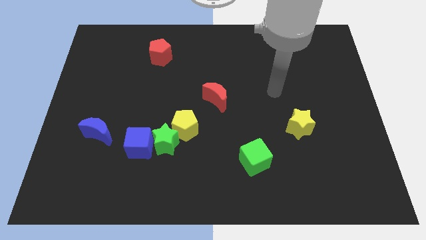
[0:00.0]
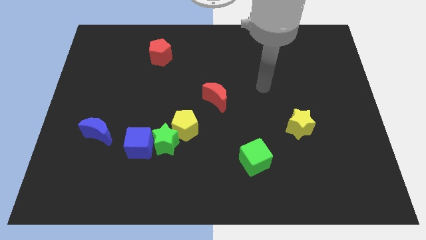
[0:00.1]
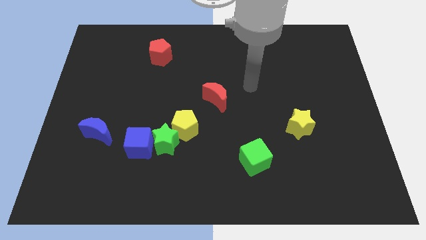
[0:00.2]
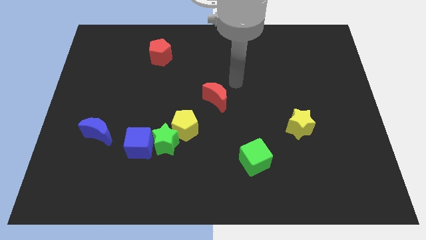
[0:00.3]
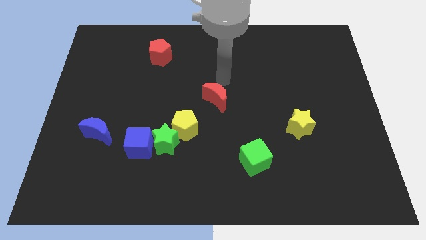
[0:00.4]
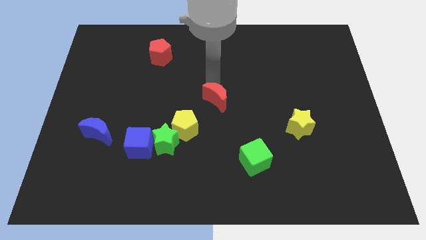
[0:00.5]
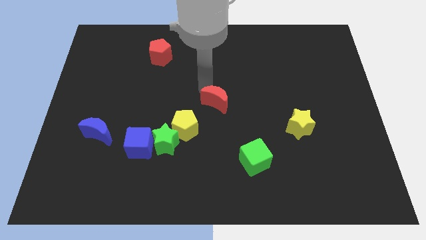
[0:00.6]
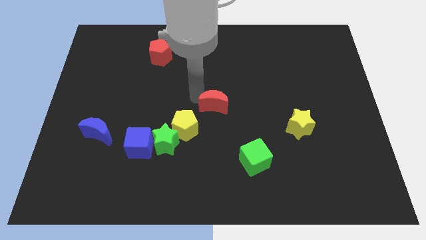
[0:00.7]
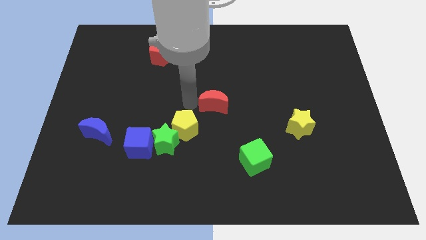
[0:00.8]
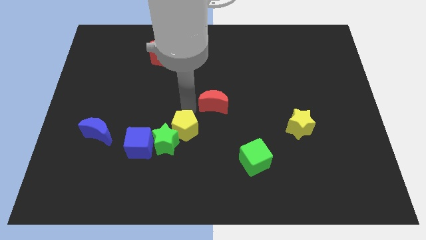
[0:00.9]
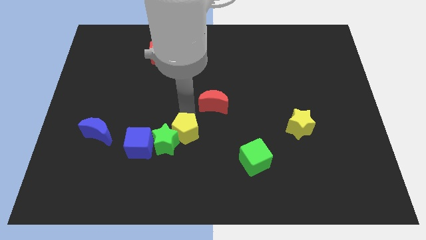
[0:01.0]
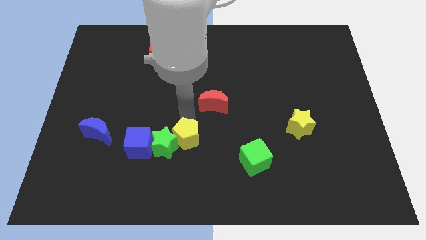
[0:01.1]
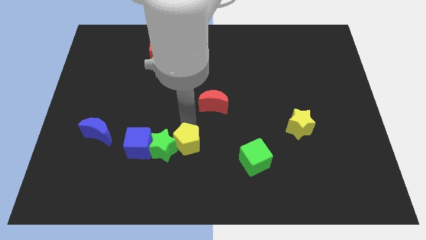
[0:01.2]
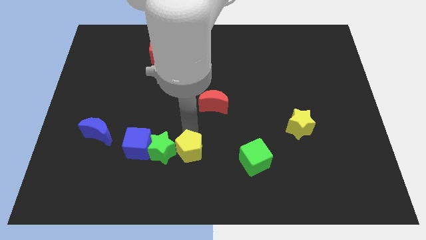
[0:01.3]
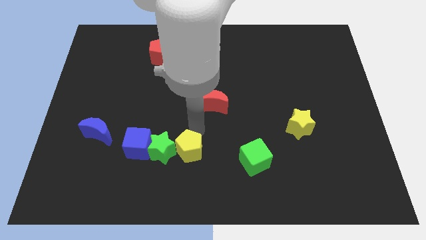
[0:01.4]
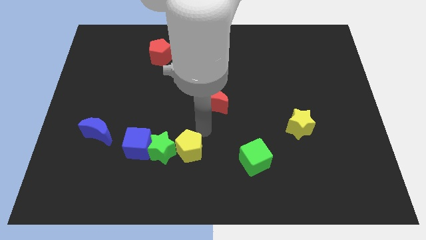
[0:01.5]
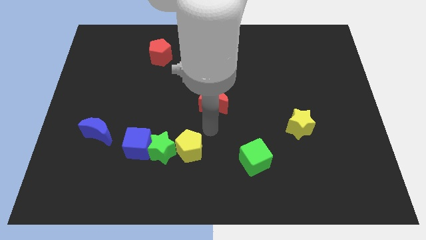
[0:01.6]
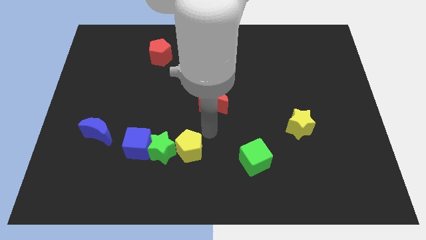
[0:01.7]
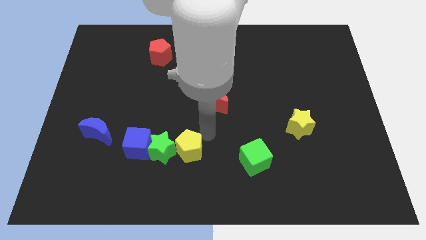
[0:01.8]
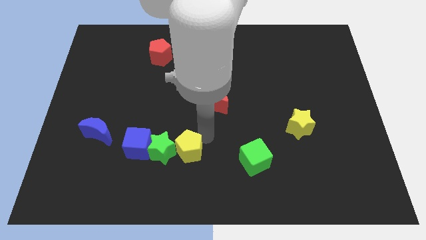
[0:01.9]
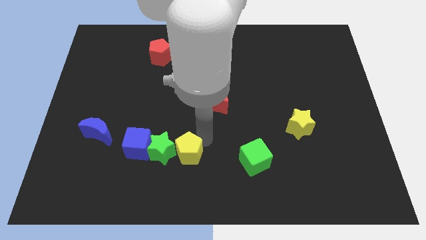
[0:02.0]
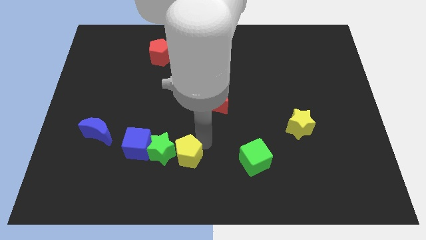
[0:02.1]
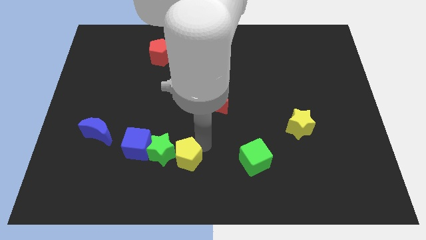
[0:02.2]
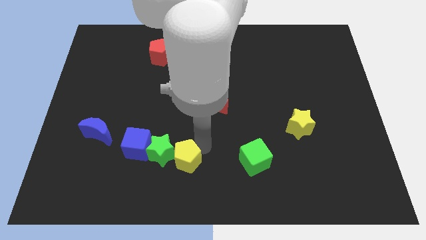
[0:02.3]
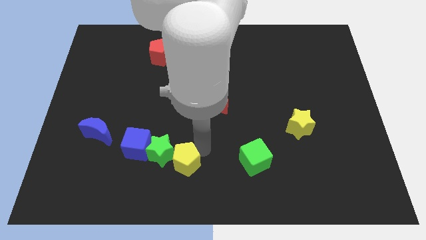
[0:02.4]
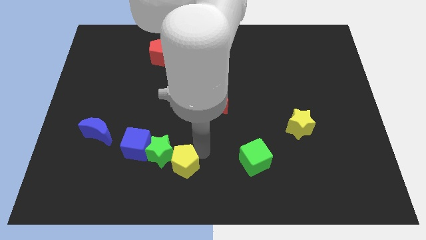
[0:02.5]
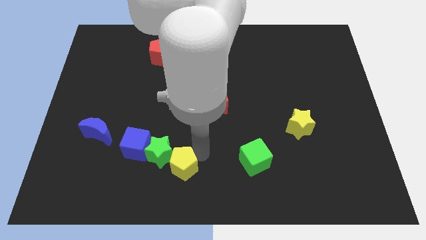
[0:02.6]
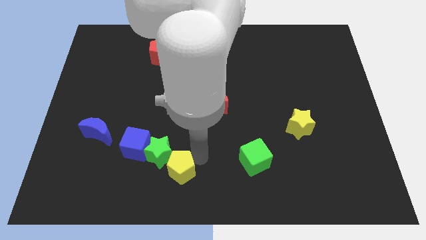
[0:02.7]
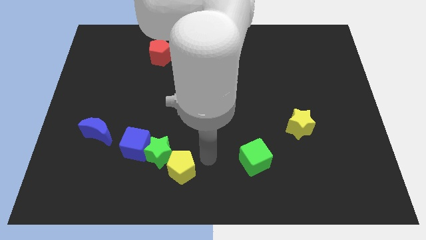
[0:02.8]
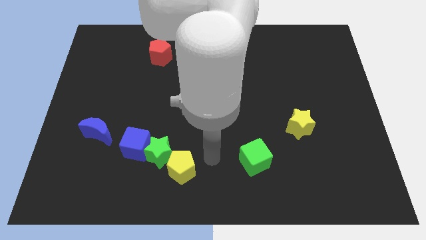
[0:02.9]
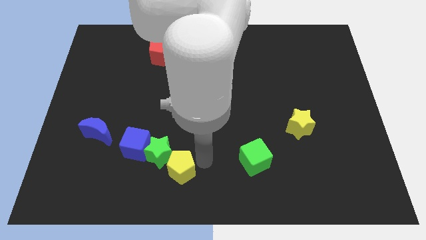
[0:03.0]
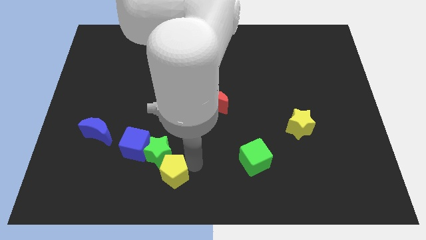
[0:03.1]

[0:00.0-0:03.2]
push the yellow pentagon downwards and to the left somewhat

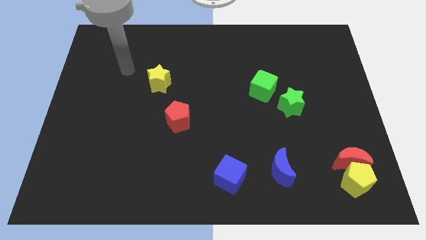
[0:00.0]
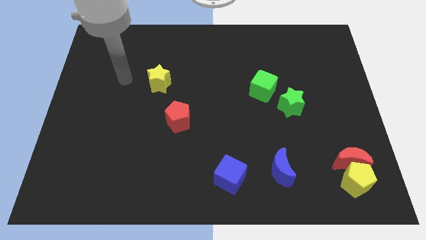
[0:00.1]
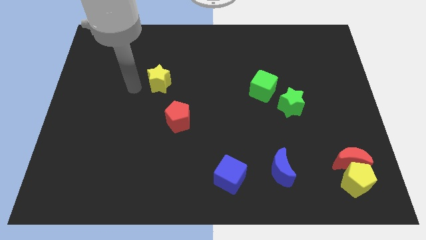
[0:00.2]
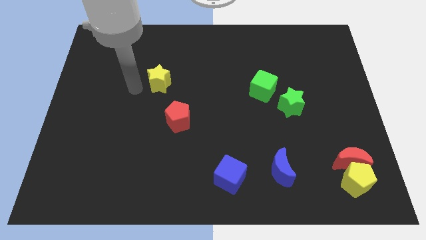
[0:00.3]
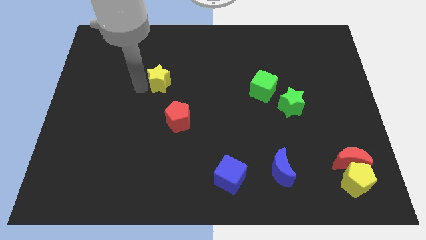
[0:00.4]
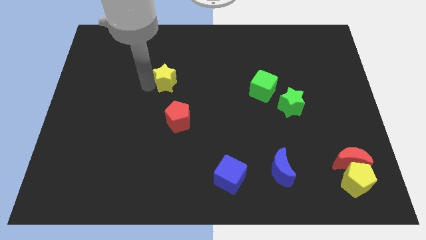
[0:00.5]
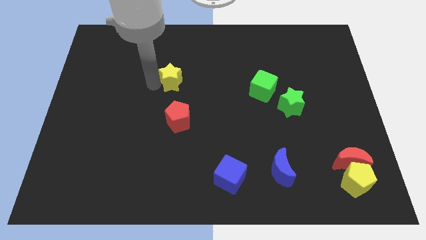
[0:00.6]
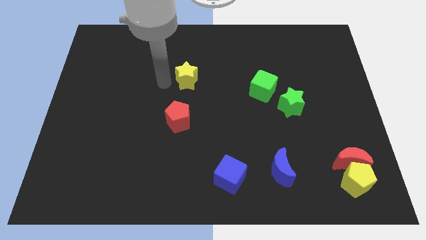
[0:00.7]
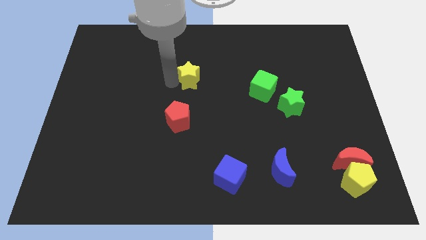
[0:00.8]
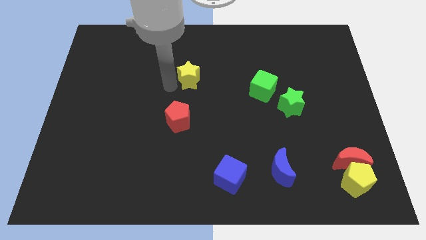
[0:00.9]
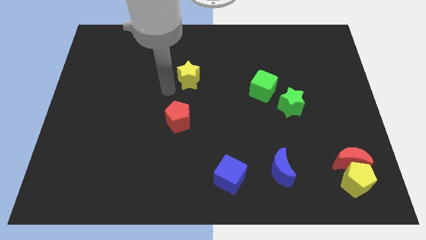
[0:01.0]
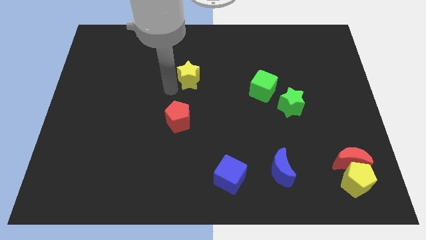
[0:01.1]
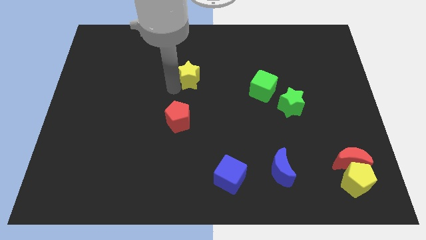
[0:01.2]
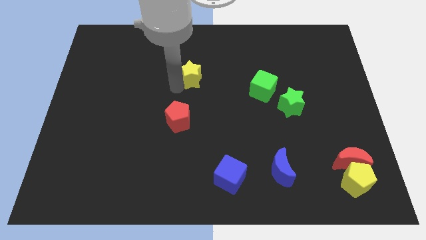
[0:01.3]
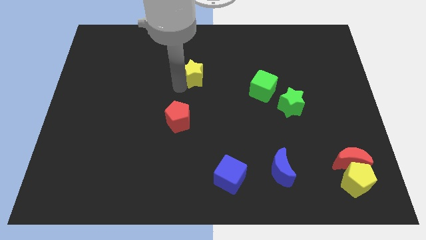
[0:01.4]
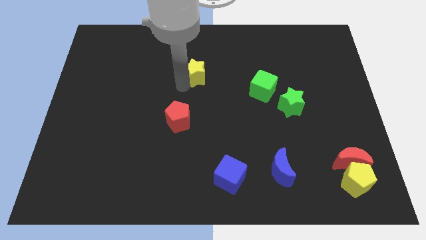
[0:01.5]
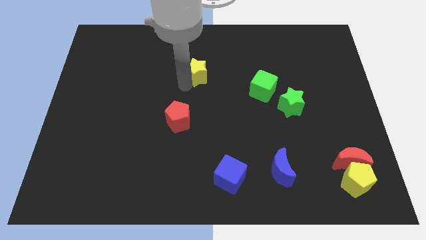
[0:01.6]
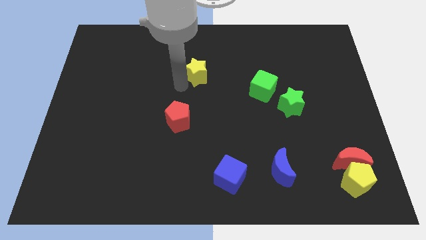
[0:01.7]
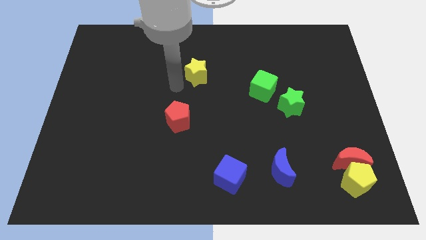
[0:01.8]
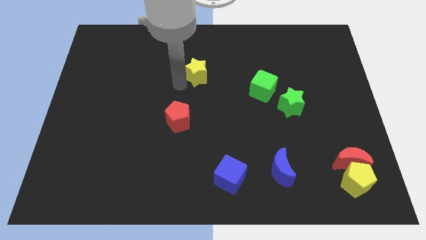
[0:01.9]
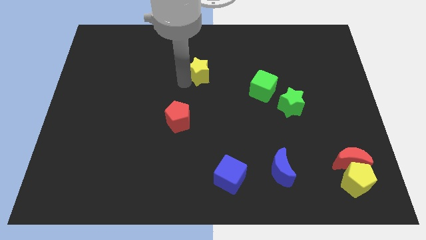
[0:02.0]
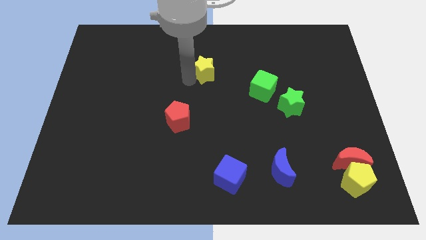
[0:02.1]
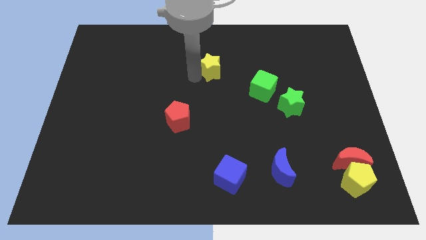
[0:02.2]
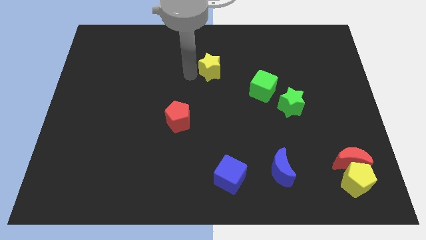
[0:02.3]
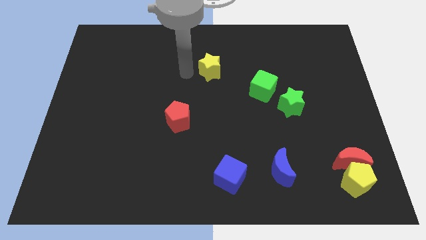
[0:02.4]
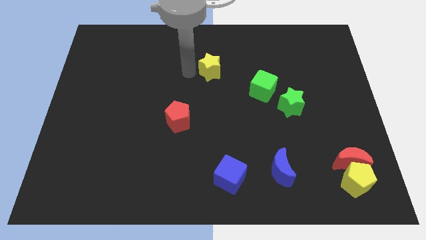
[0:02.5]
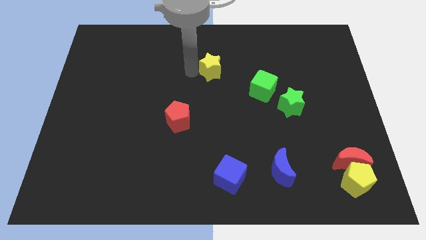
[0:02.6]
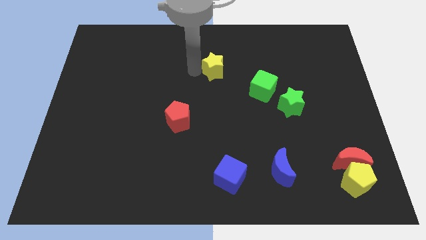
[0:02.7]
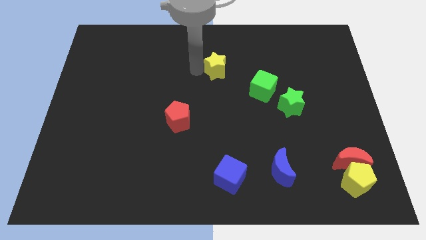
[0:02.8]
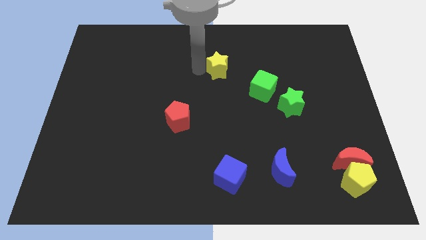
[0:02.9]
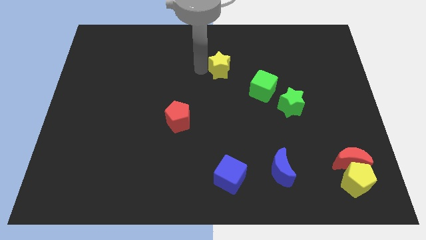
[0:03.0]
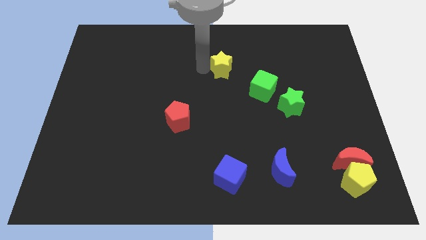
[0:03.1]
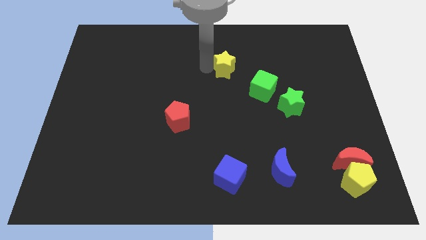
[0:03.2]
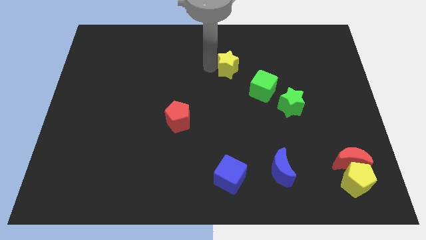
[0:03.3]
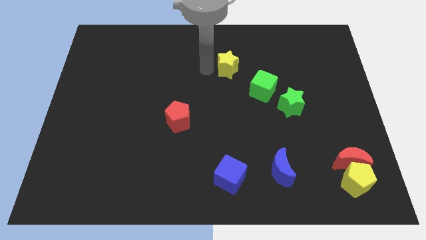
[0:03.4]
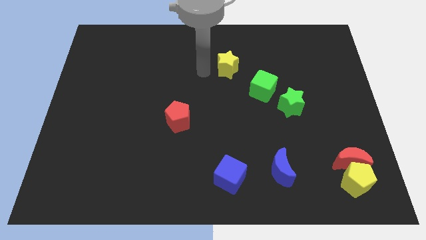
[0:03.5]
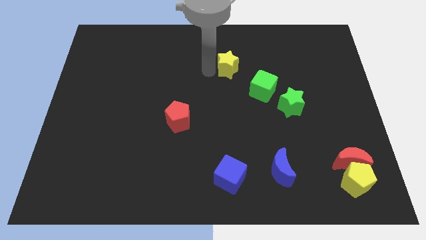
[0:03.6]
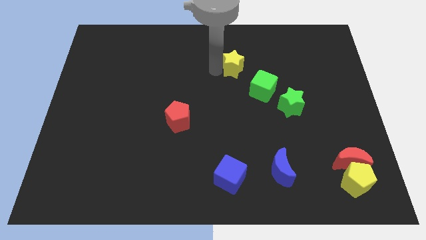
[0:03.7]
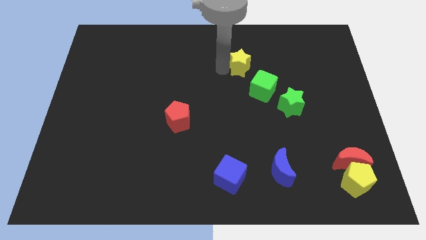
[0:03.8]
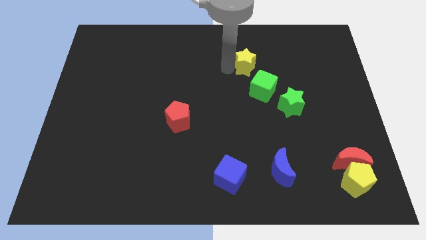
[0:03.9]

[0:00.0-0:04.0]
push the yellow star right

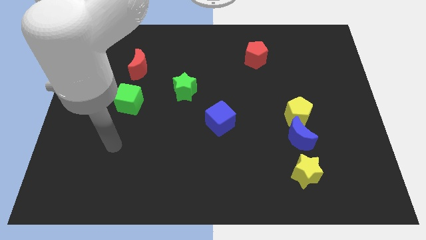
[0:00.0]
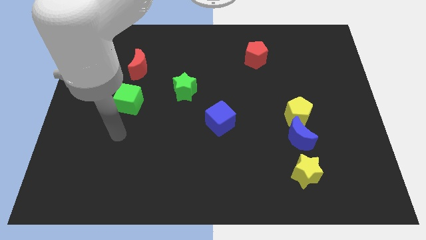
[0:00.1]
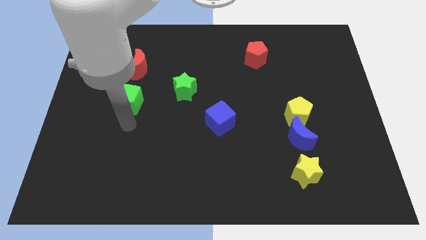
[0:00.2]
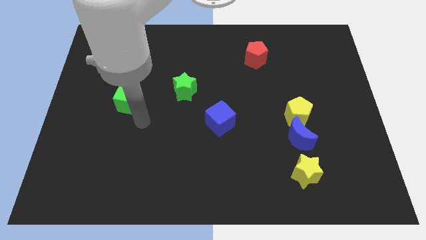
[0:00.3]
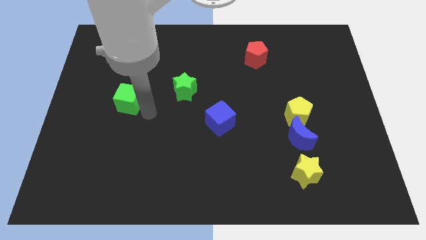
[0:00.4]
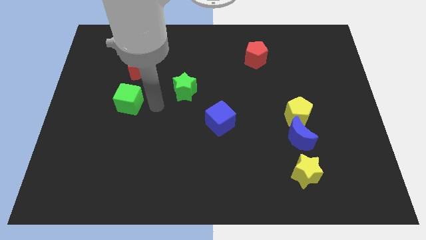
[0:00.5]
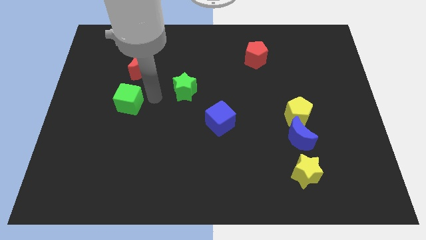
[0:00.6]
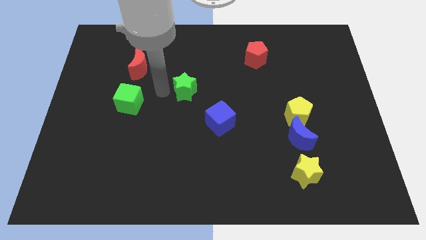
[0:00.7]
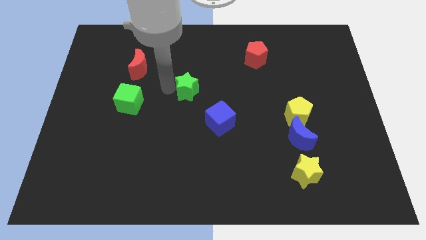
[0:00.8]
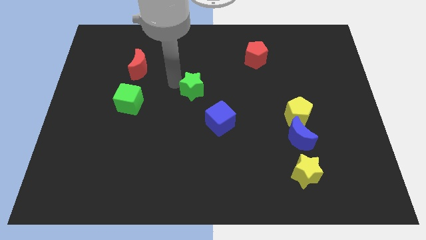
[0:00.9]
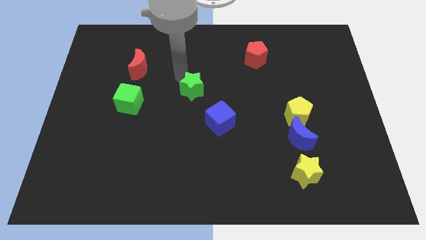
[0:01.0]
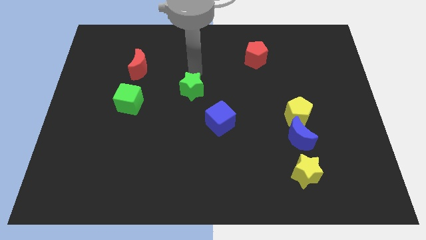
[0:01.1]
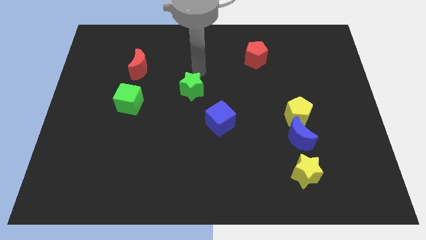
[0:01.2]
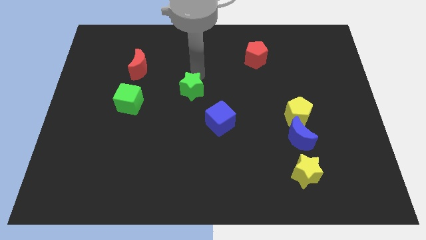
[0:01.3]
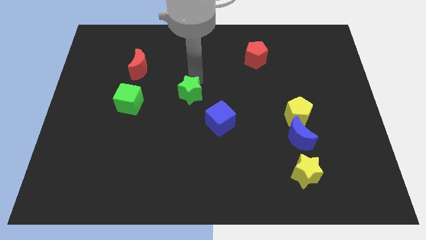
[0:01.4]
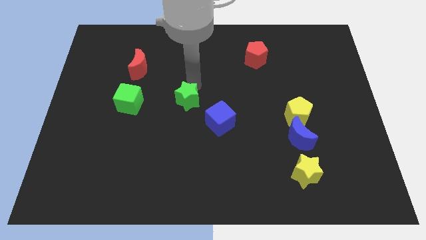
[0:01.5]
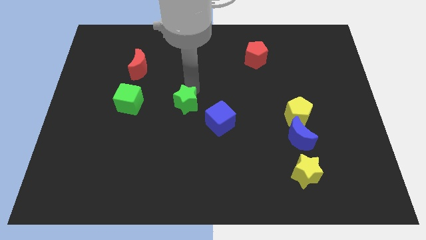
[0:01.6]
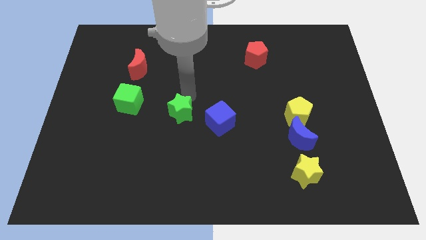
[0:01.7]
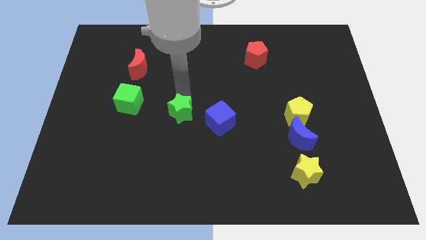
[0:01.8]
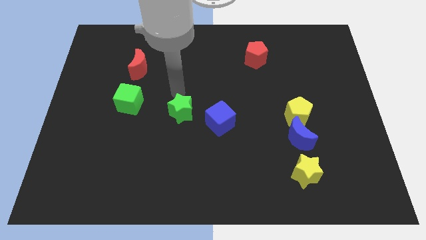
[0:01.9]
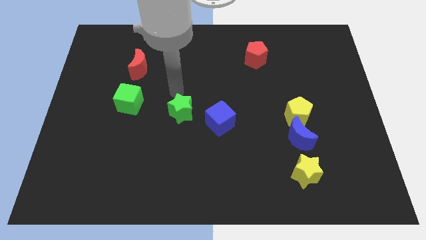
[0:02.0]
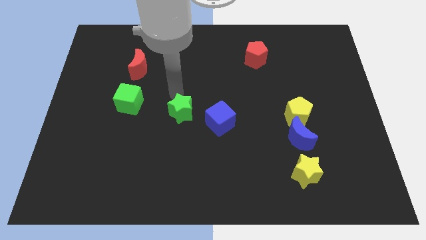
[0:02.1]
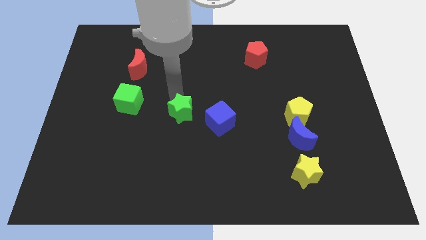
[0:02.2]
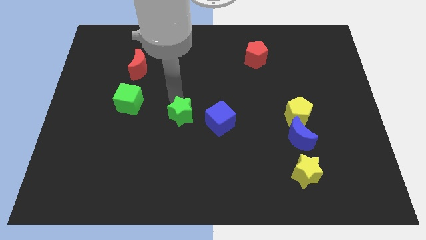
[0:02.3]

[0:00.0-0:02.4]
push the green star a bit downwards
